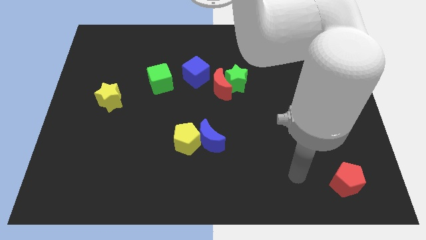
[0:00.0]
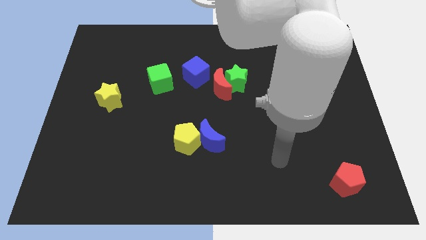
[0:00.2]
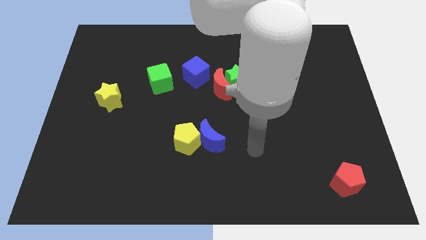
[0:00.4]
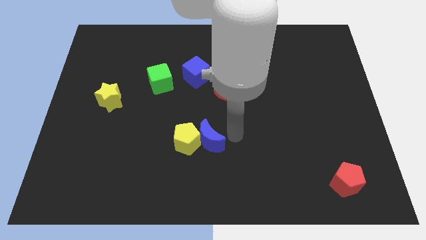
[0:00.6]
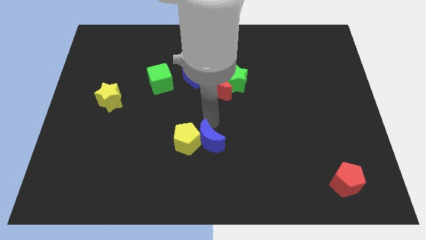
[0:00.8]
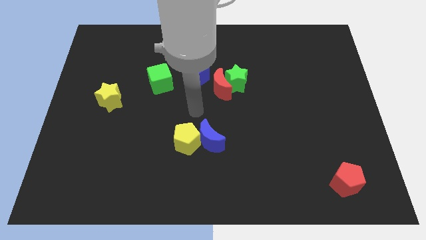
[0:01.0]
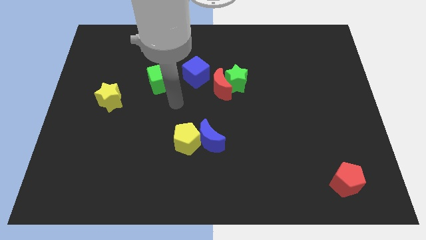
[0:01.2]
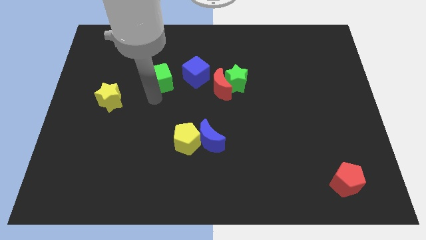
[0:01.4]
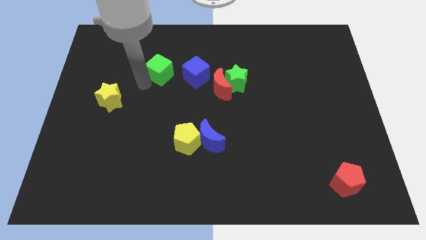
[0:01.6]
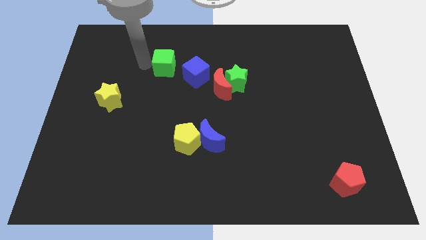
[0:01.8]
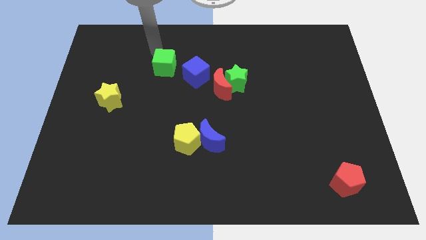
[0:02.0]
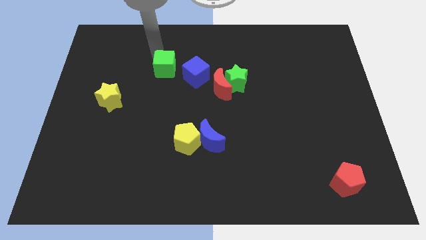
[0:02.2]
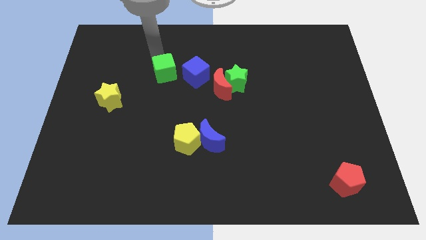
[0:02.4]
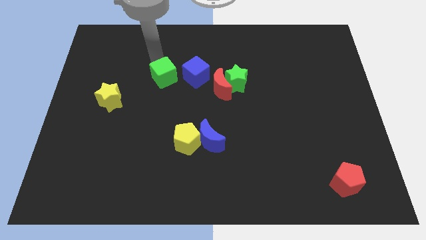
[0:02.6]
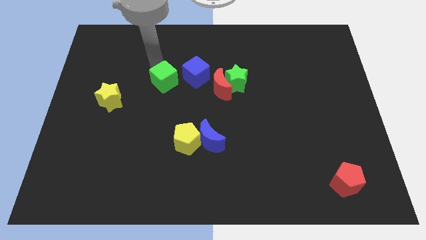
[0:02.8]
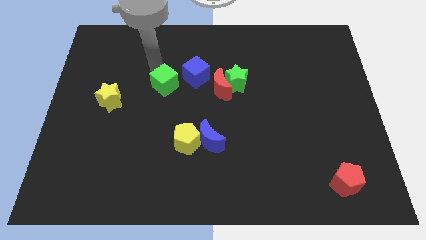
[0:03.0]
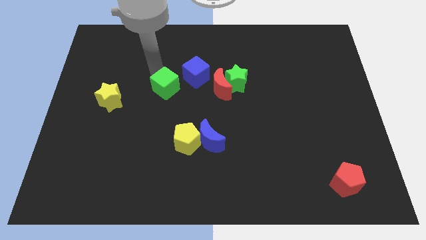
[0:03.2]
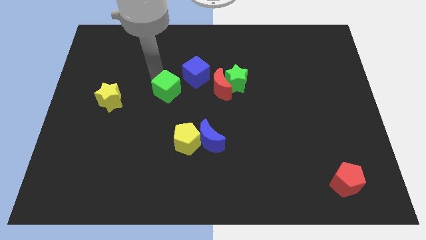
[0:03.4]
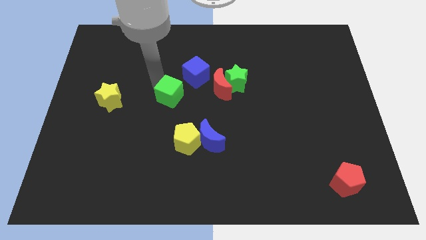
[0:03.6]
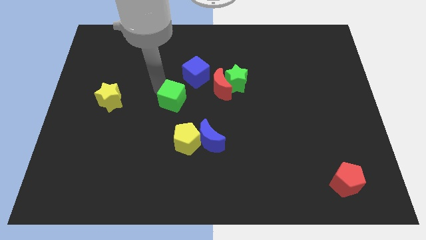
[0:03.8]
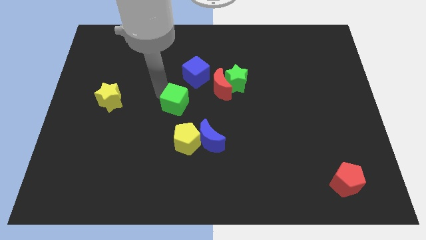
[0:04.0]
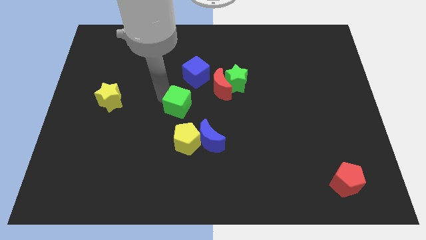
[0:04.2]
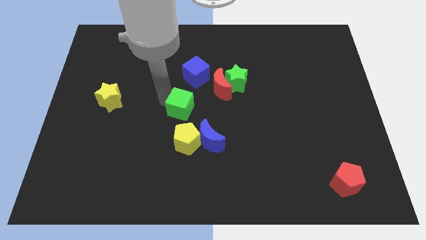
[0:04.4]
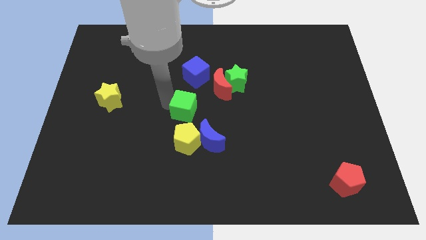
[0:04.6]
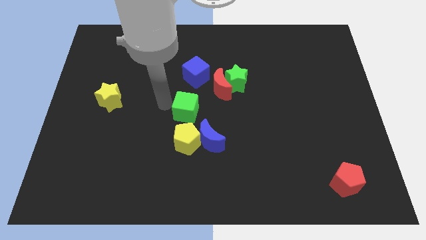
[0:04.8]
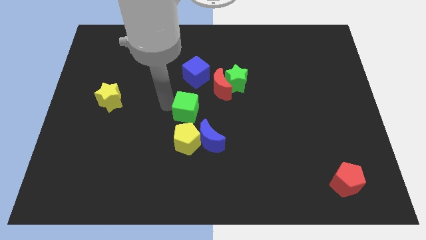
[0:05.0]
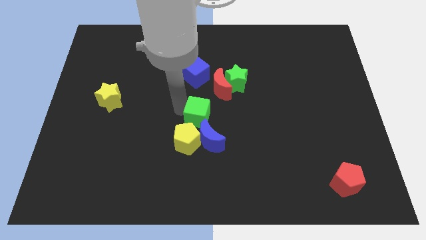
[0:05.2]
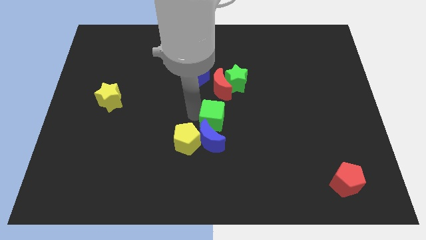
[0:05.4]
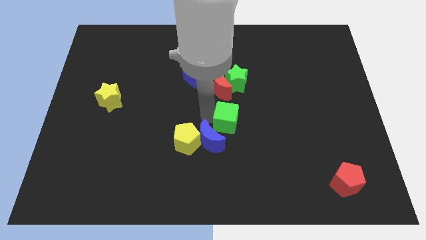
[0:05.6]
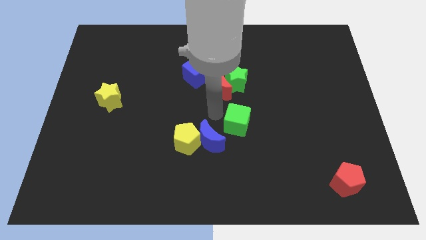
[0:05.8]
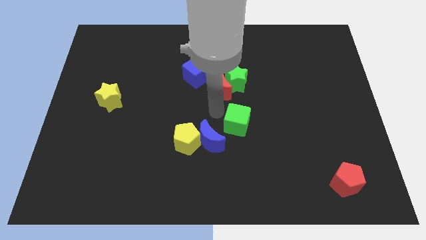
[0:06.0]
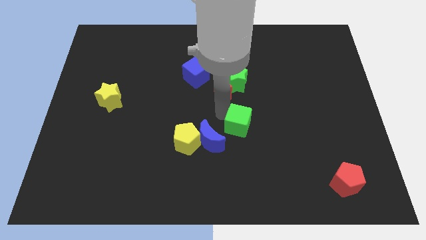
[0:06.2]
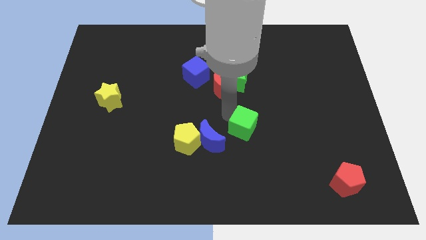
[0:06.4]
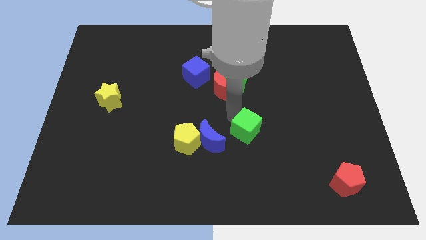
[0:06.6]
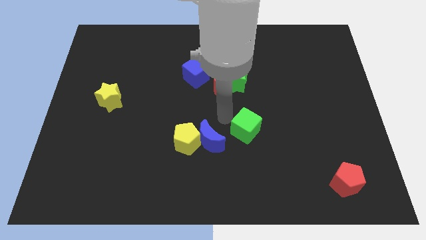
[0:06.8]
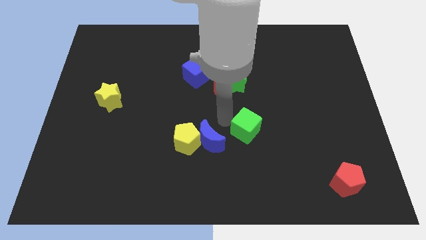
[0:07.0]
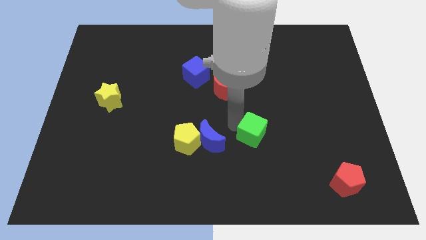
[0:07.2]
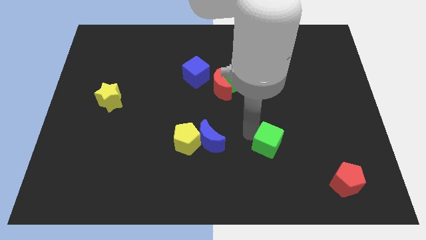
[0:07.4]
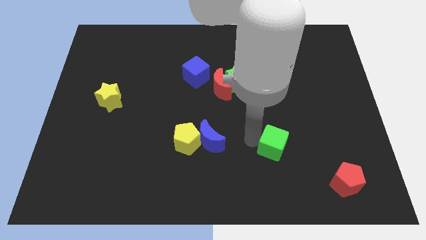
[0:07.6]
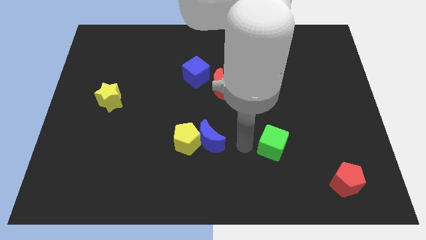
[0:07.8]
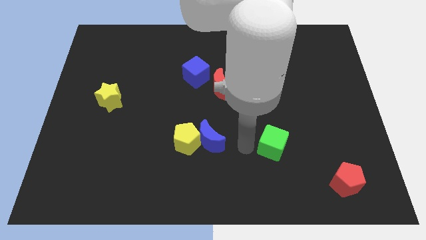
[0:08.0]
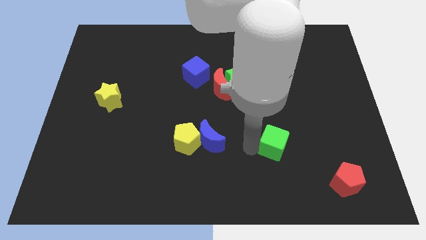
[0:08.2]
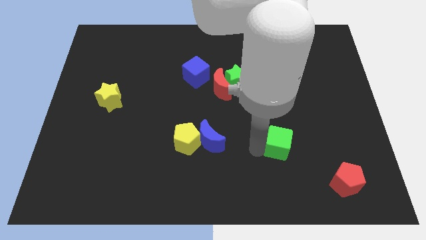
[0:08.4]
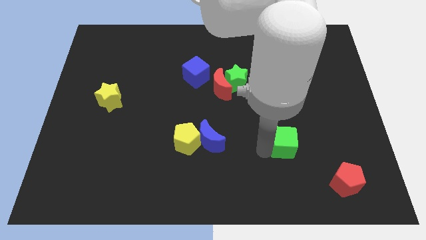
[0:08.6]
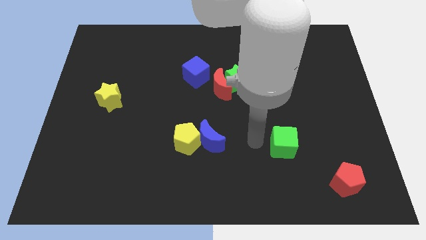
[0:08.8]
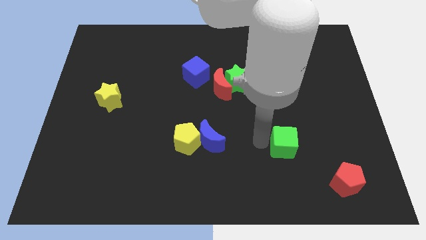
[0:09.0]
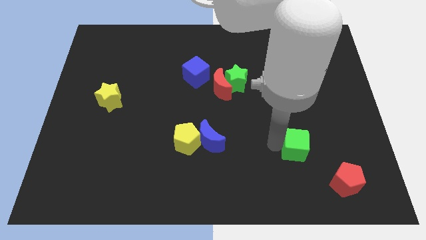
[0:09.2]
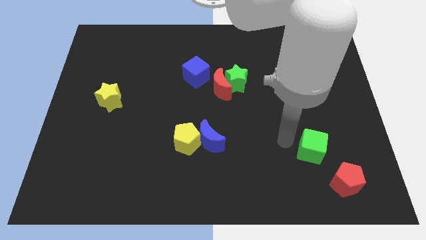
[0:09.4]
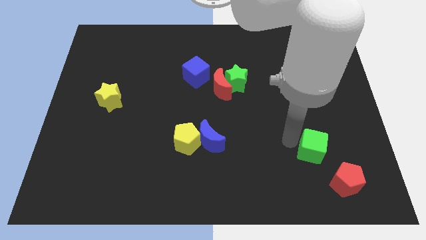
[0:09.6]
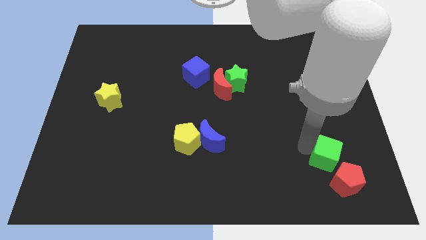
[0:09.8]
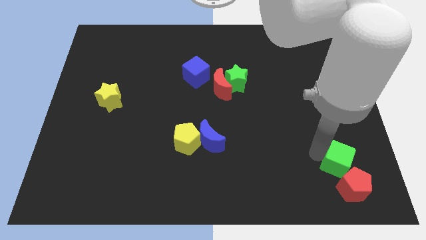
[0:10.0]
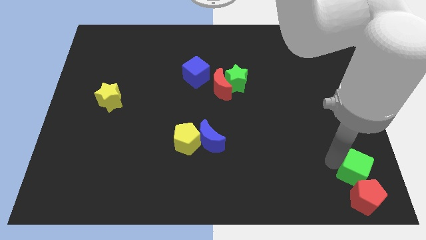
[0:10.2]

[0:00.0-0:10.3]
move the green cube to the bottom right corner

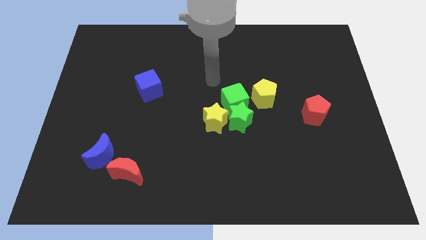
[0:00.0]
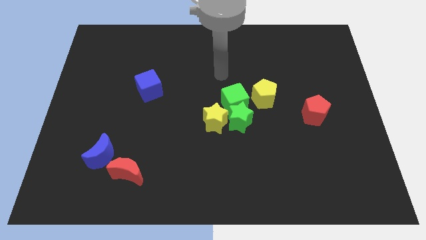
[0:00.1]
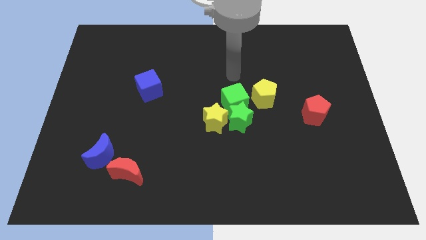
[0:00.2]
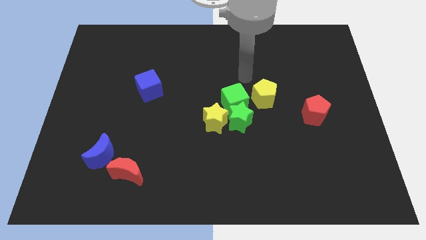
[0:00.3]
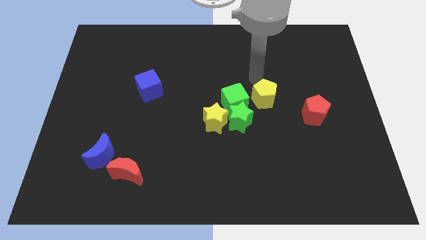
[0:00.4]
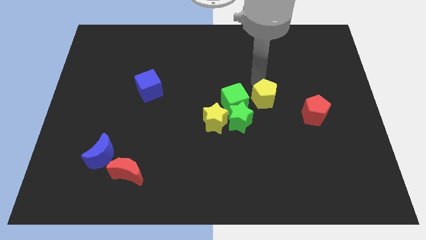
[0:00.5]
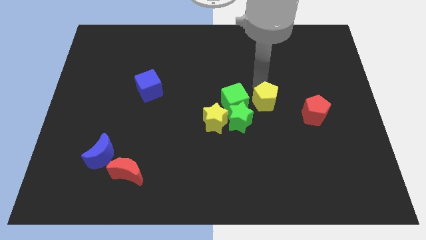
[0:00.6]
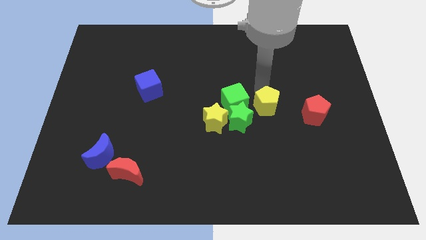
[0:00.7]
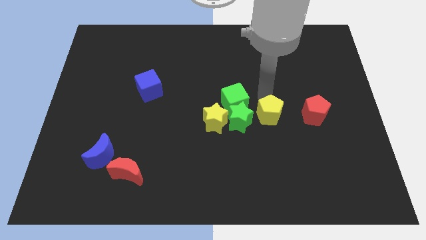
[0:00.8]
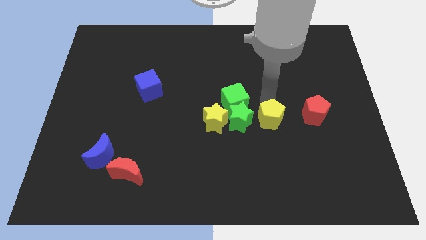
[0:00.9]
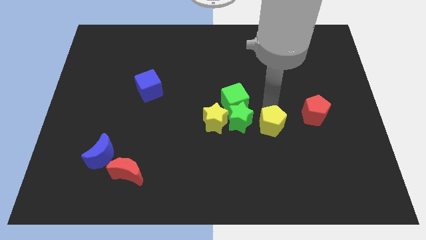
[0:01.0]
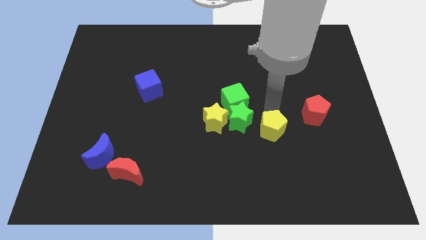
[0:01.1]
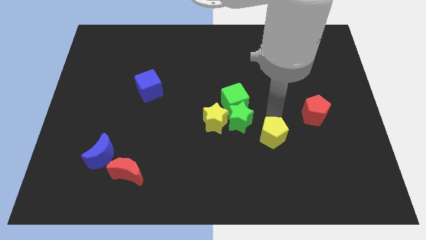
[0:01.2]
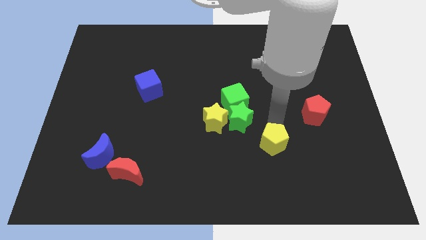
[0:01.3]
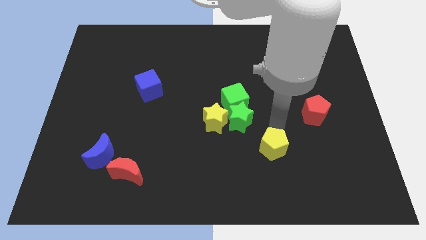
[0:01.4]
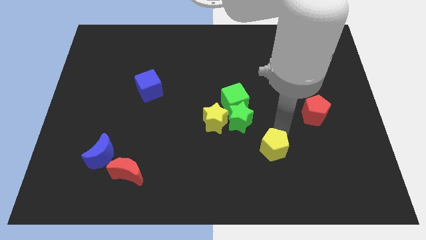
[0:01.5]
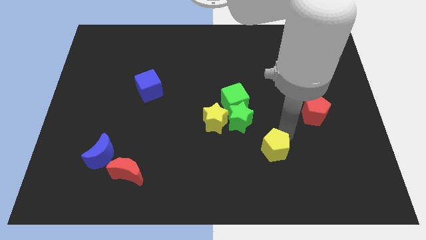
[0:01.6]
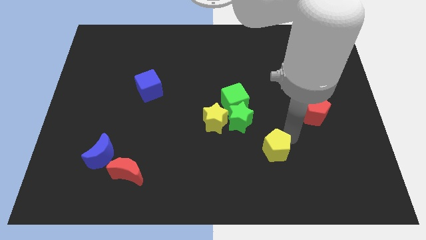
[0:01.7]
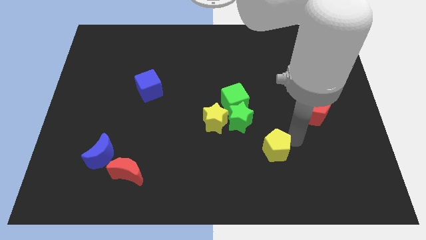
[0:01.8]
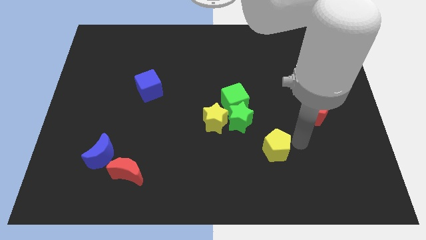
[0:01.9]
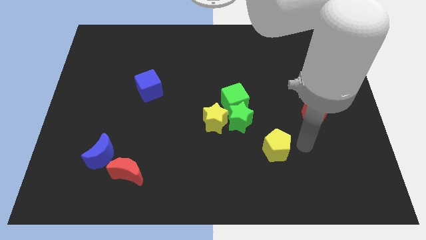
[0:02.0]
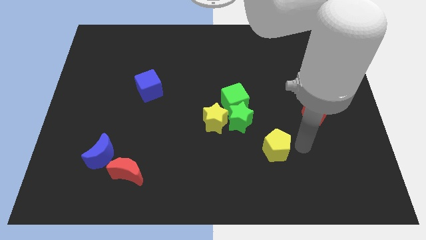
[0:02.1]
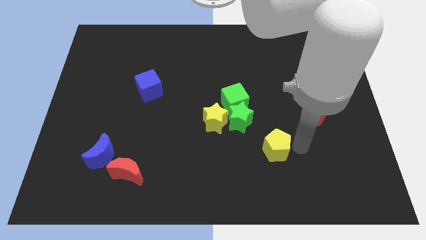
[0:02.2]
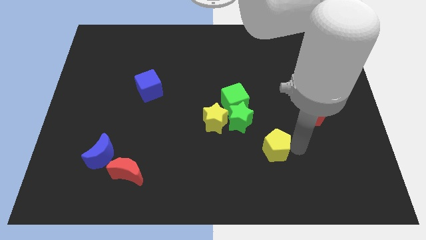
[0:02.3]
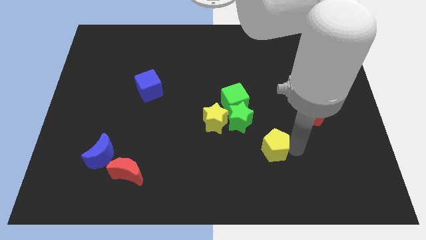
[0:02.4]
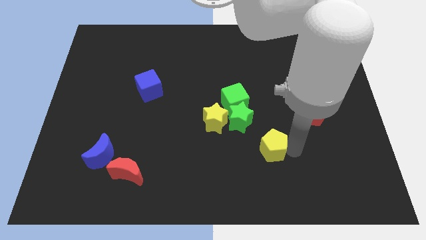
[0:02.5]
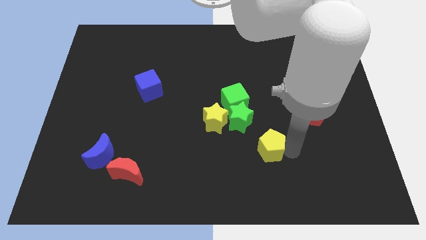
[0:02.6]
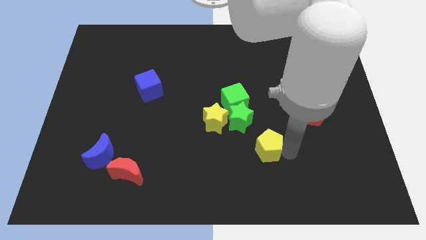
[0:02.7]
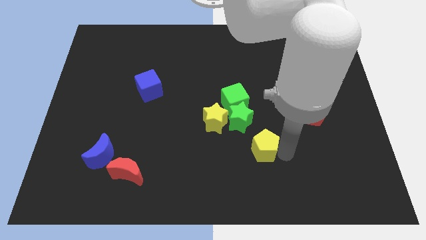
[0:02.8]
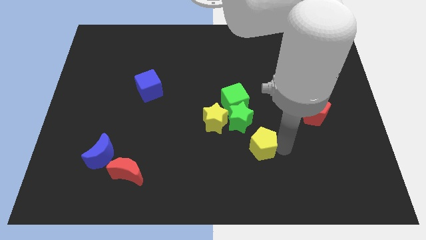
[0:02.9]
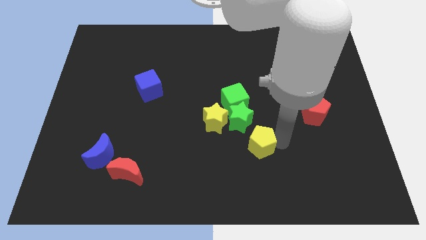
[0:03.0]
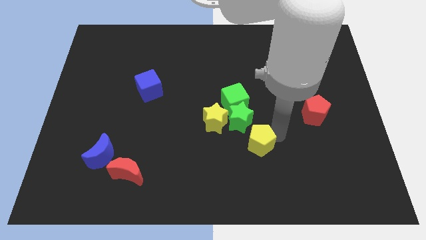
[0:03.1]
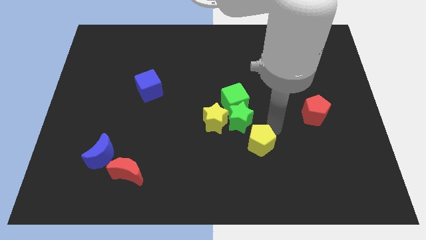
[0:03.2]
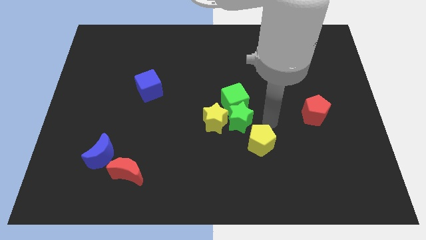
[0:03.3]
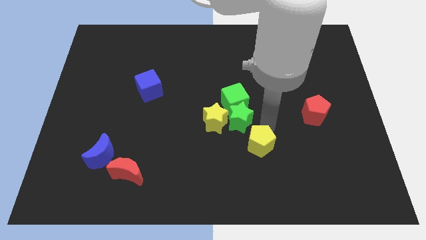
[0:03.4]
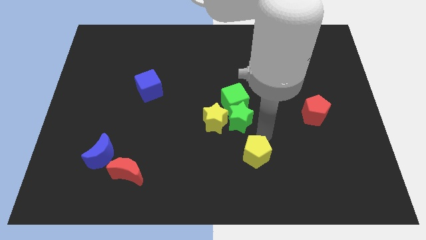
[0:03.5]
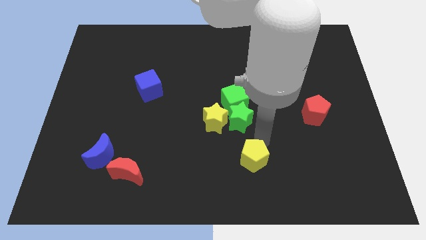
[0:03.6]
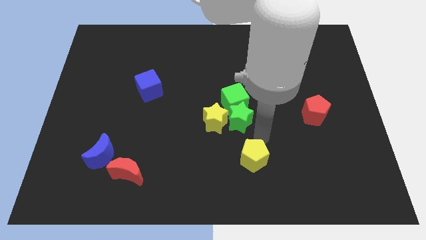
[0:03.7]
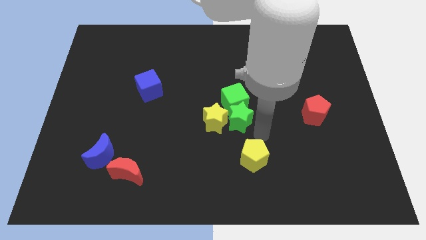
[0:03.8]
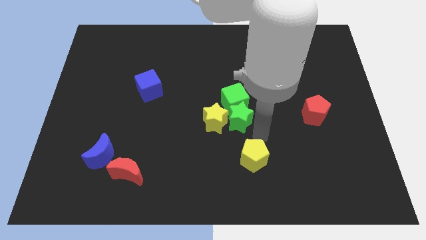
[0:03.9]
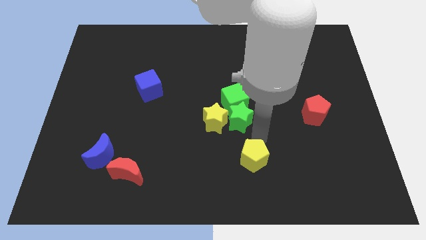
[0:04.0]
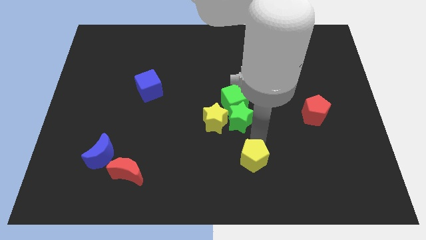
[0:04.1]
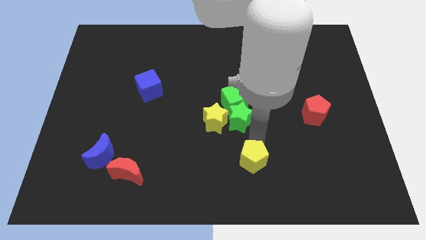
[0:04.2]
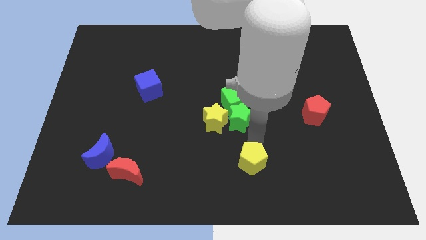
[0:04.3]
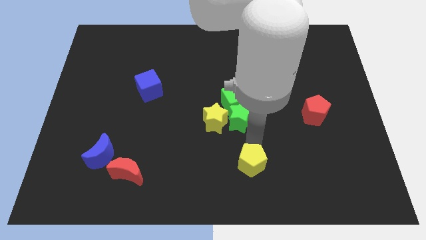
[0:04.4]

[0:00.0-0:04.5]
put the yellow pentagon to the bottom side
